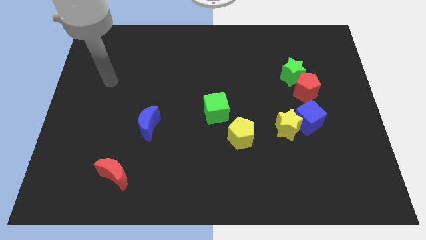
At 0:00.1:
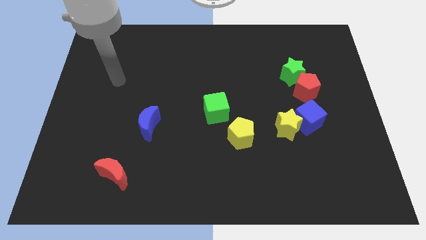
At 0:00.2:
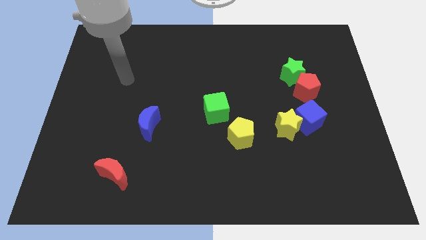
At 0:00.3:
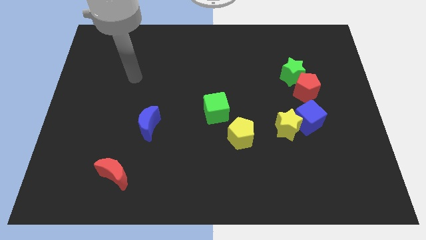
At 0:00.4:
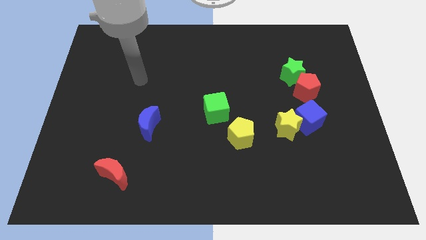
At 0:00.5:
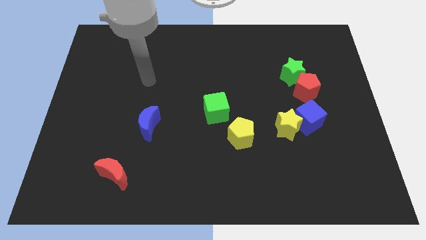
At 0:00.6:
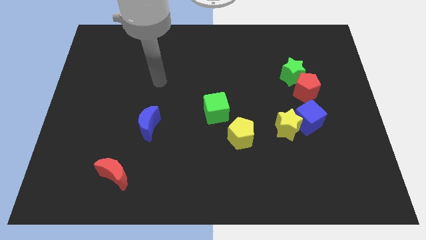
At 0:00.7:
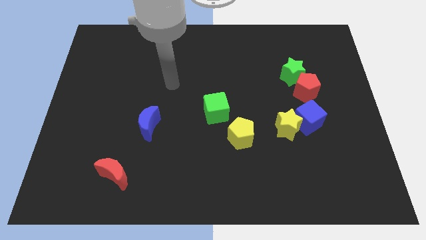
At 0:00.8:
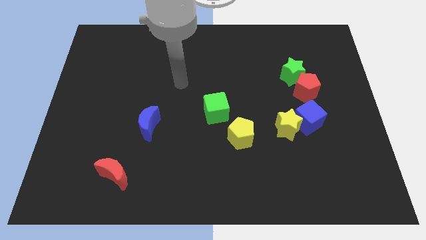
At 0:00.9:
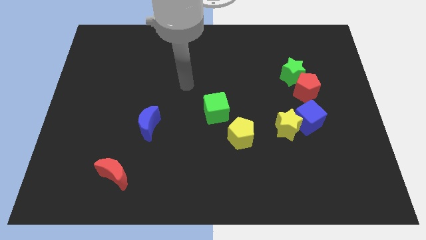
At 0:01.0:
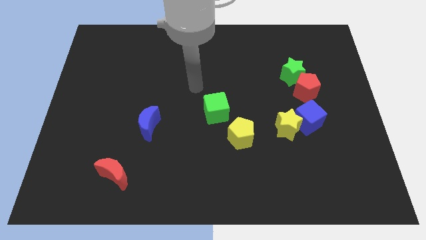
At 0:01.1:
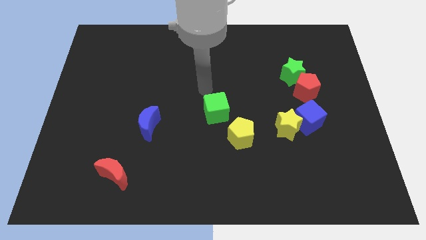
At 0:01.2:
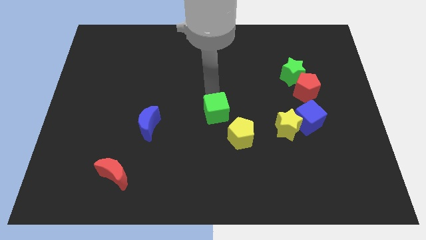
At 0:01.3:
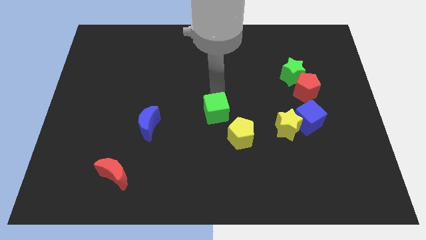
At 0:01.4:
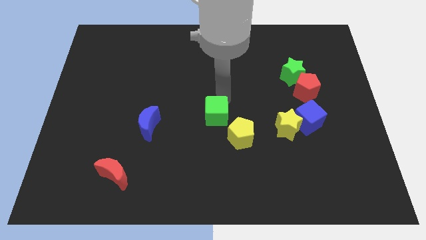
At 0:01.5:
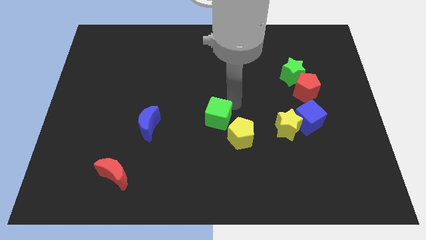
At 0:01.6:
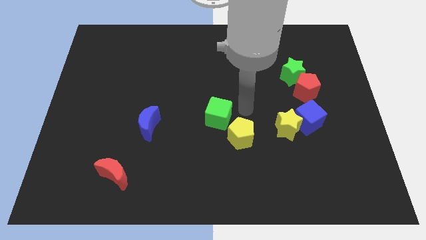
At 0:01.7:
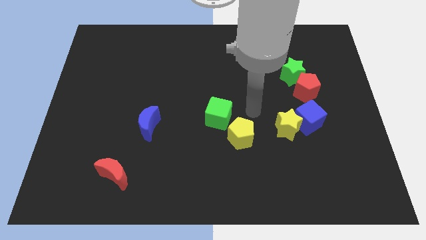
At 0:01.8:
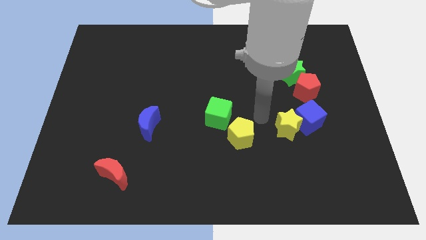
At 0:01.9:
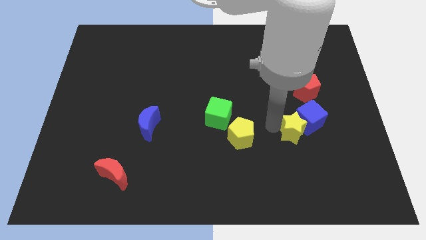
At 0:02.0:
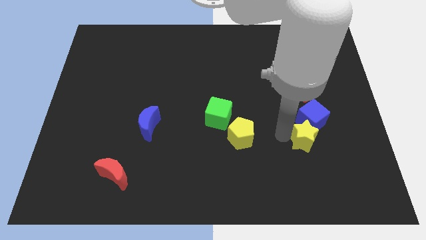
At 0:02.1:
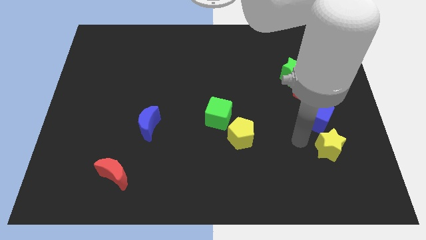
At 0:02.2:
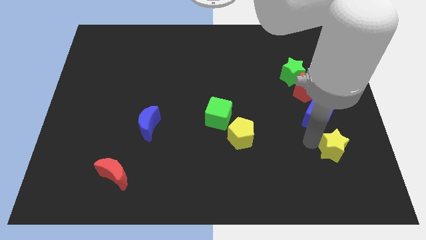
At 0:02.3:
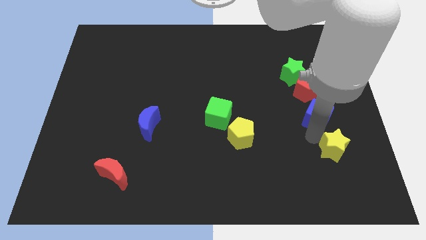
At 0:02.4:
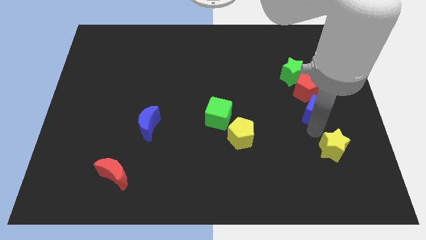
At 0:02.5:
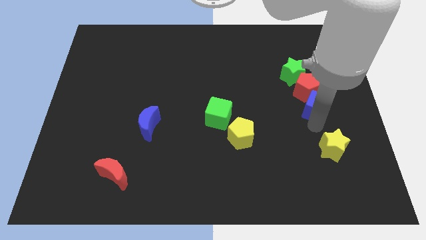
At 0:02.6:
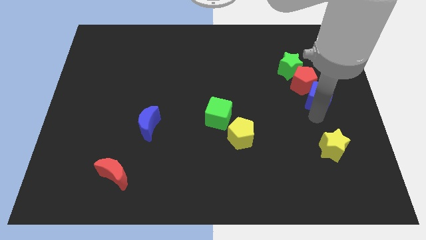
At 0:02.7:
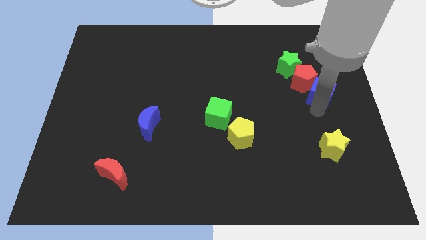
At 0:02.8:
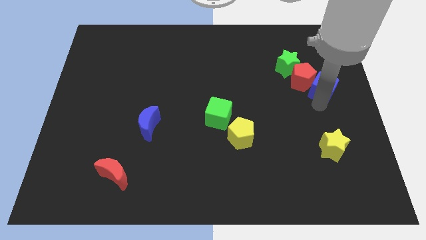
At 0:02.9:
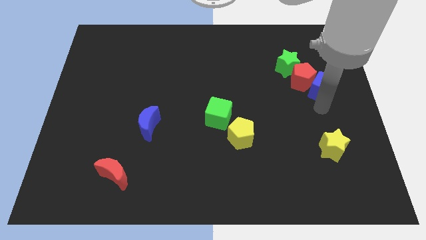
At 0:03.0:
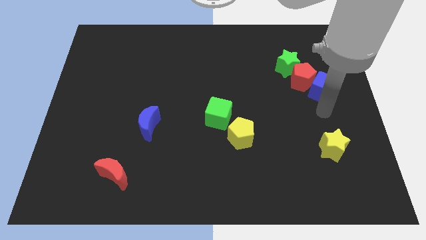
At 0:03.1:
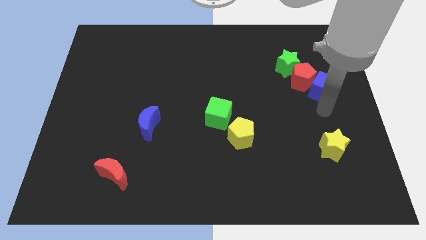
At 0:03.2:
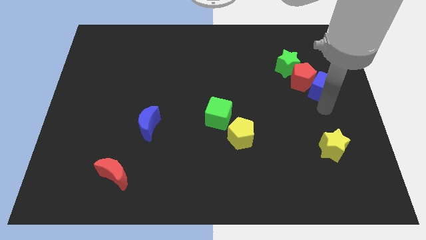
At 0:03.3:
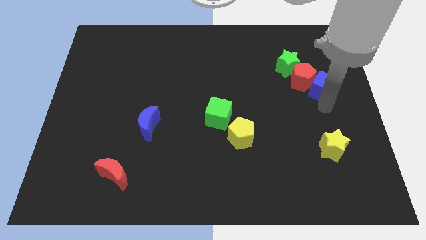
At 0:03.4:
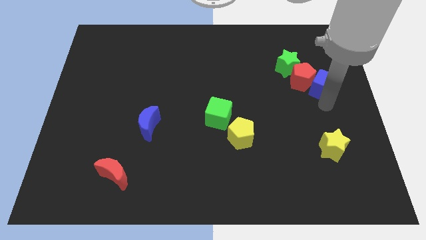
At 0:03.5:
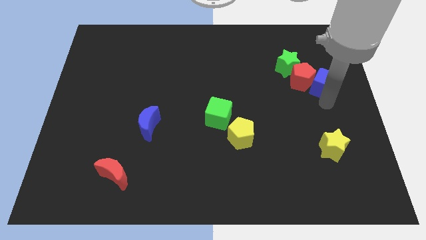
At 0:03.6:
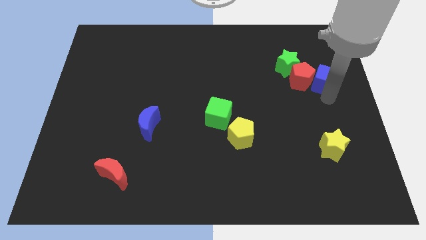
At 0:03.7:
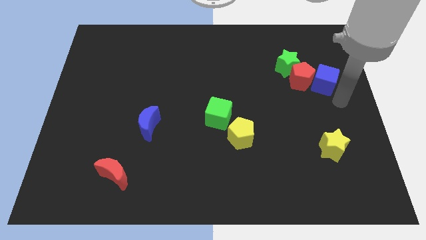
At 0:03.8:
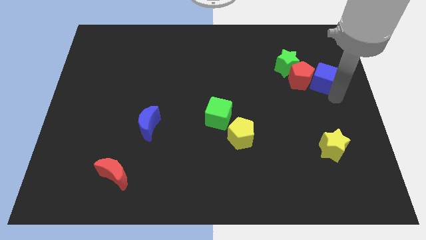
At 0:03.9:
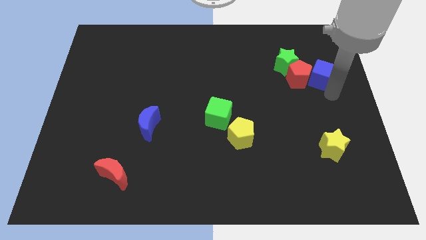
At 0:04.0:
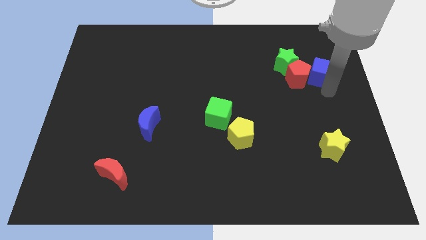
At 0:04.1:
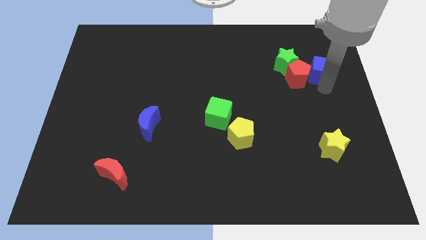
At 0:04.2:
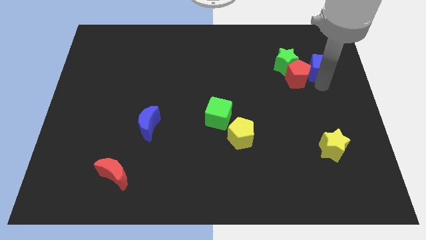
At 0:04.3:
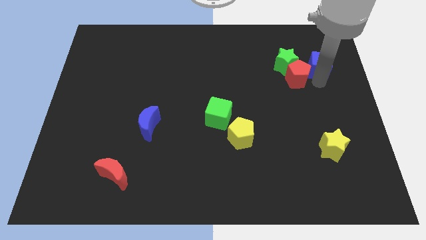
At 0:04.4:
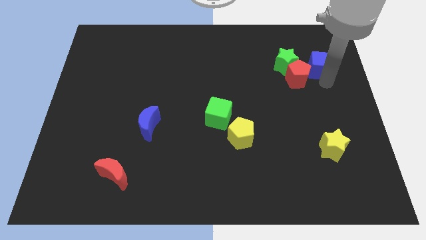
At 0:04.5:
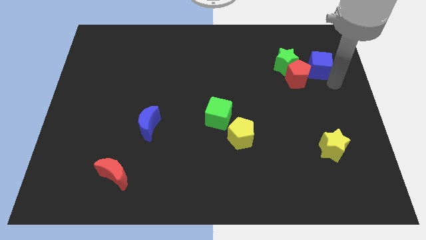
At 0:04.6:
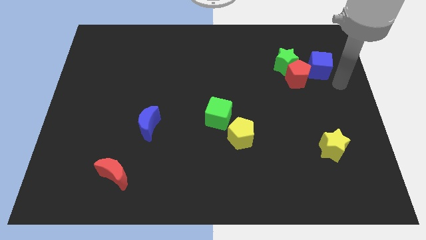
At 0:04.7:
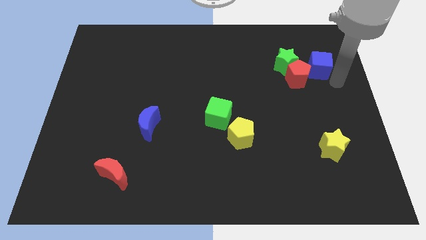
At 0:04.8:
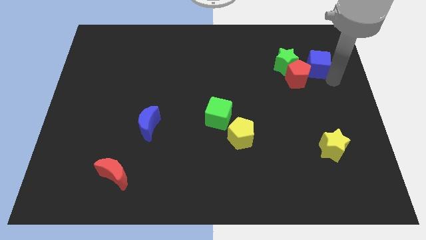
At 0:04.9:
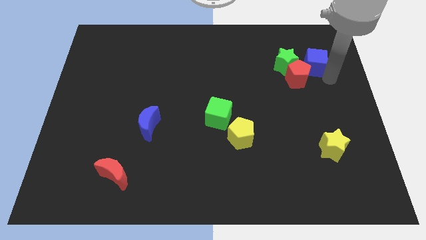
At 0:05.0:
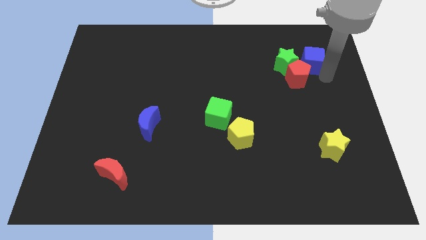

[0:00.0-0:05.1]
push the blue cube above the red pentagon

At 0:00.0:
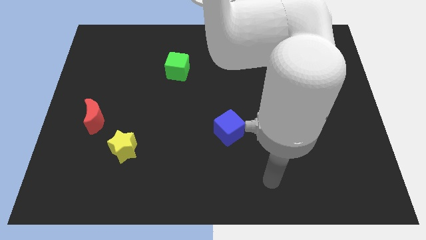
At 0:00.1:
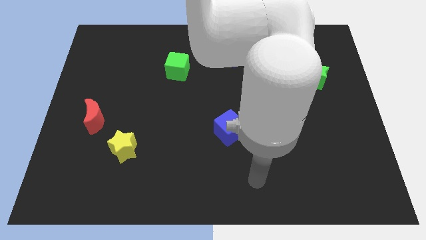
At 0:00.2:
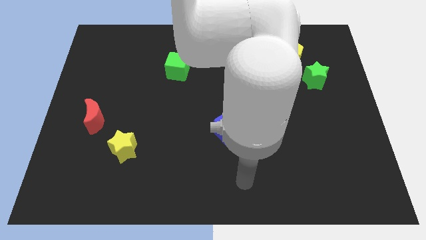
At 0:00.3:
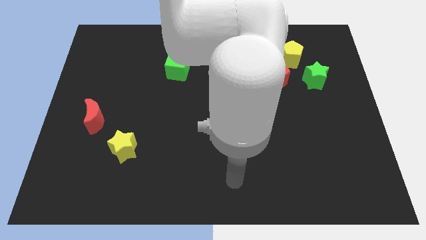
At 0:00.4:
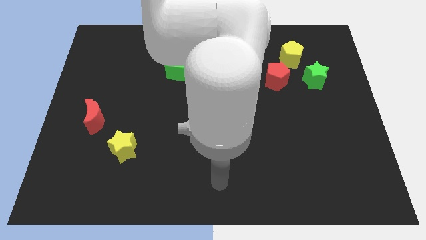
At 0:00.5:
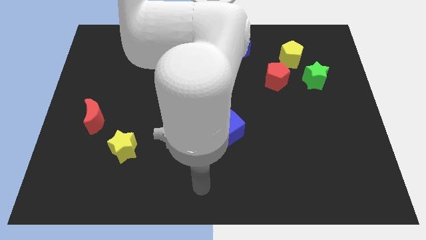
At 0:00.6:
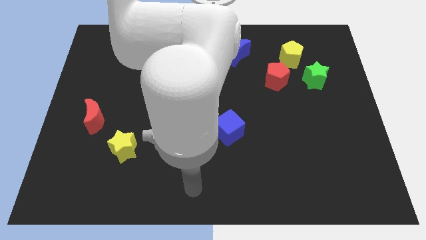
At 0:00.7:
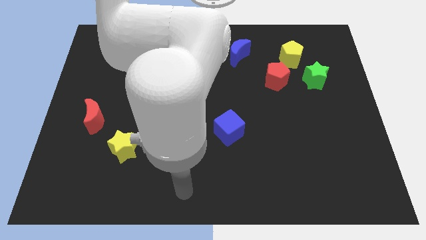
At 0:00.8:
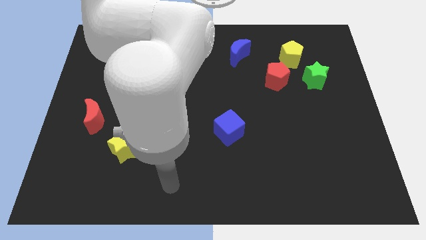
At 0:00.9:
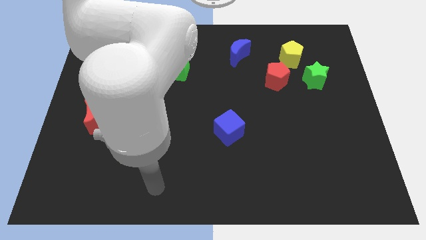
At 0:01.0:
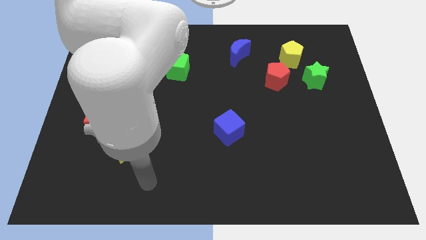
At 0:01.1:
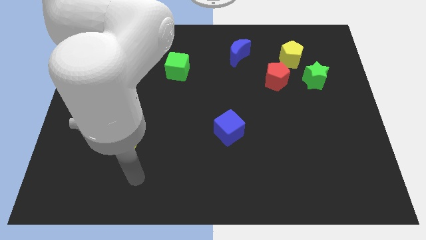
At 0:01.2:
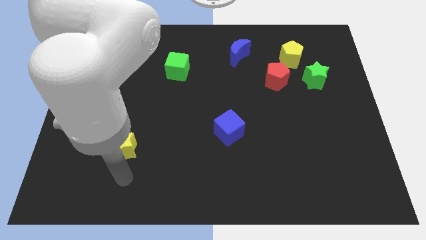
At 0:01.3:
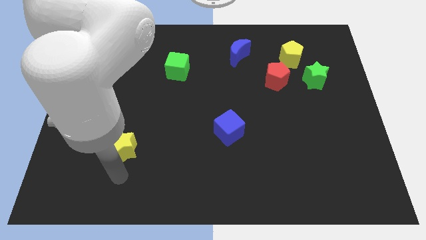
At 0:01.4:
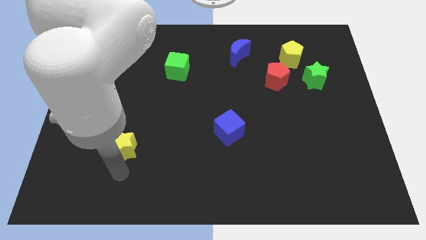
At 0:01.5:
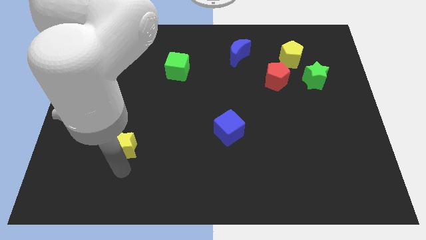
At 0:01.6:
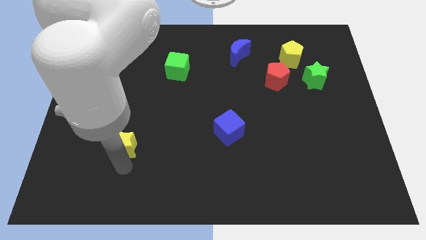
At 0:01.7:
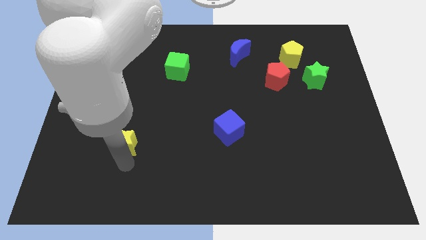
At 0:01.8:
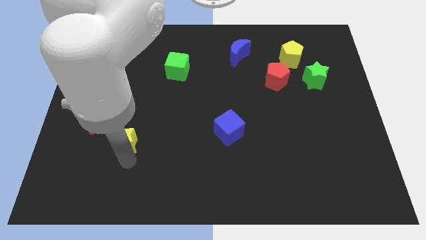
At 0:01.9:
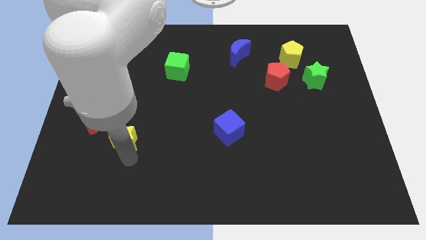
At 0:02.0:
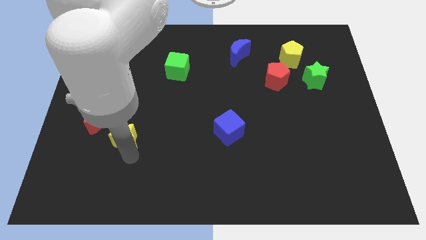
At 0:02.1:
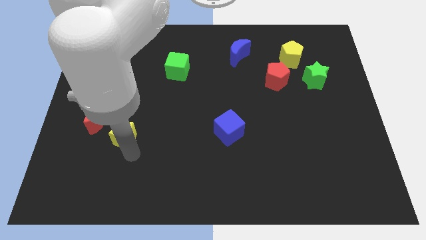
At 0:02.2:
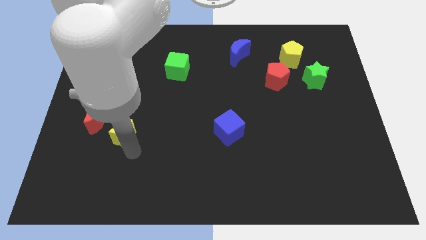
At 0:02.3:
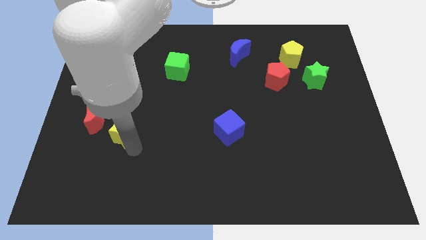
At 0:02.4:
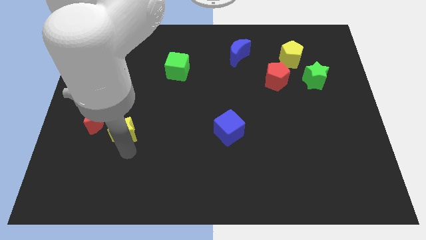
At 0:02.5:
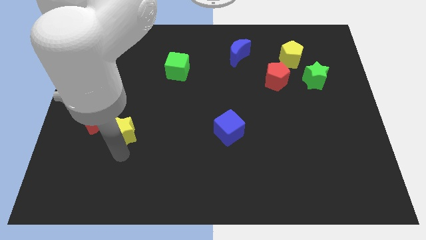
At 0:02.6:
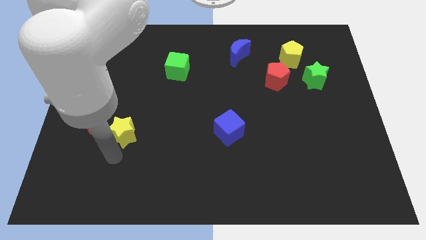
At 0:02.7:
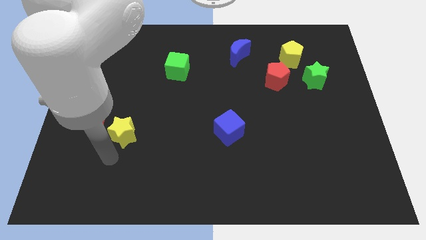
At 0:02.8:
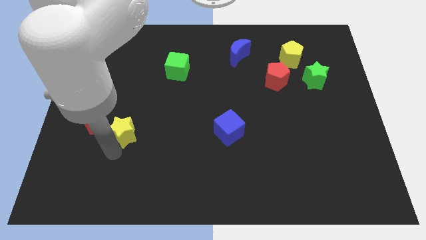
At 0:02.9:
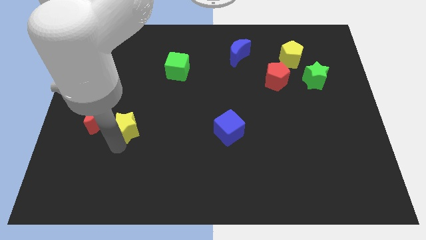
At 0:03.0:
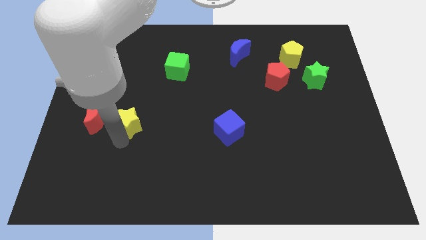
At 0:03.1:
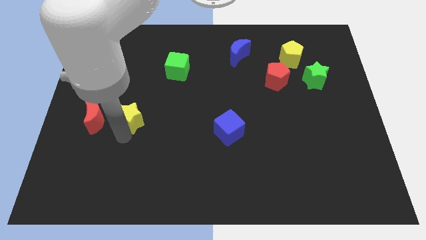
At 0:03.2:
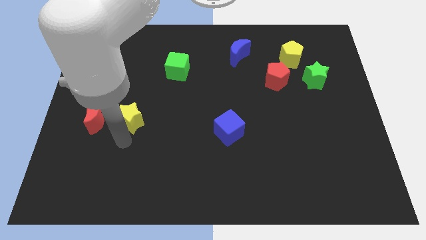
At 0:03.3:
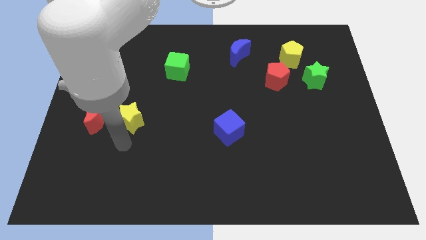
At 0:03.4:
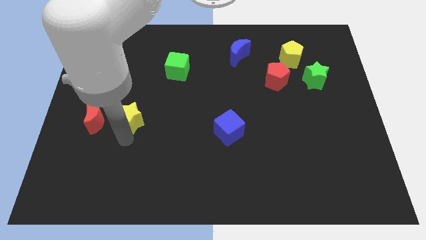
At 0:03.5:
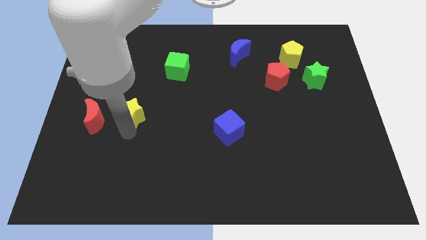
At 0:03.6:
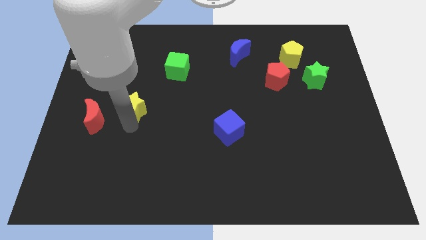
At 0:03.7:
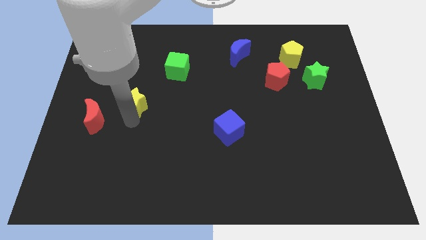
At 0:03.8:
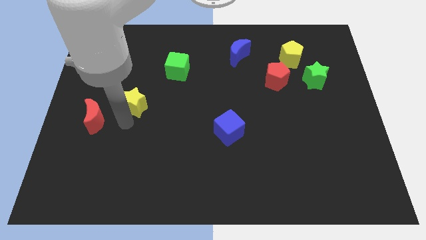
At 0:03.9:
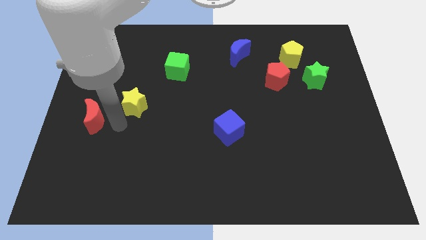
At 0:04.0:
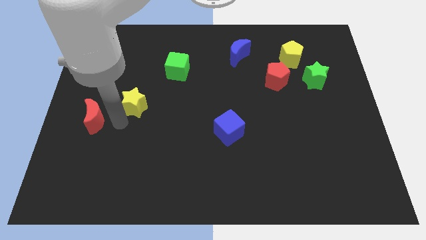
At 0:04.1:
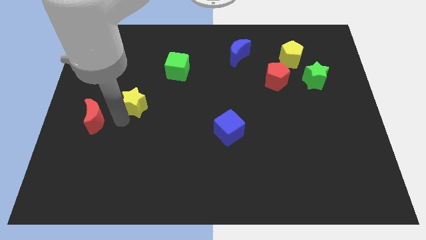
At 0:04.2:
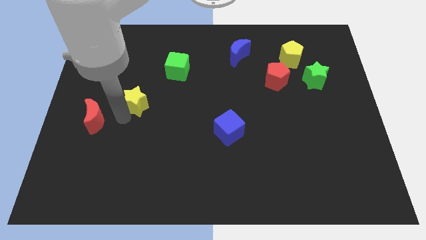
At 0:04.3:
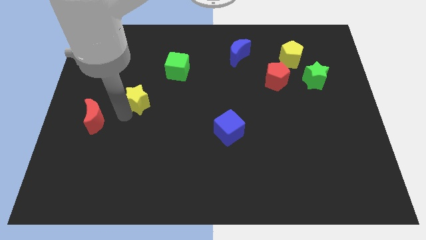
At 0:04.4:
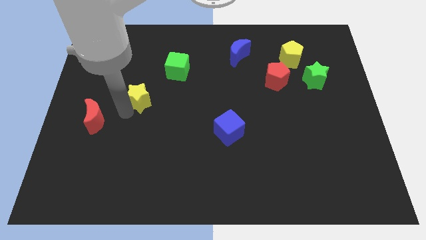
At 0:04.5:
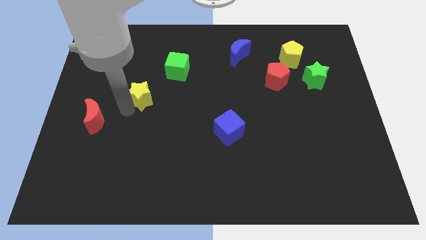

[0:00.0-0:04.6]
push the yellow star to the bottom left of the green cube
